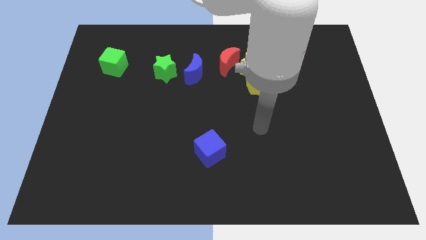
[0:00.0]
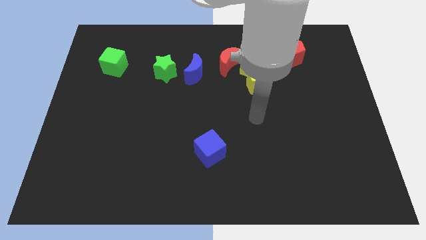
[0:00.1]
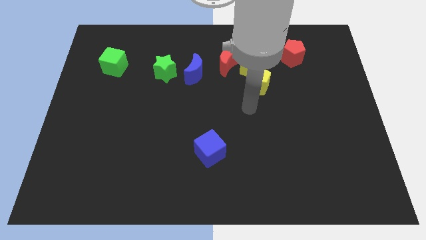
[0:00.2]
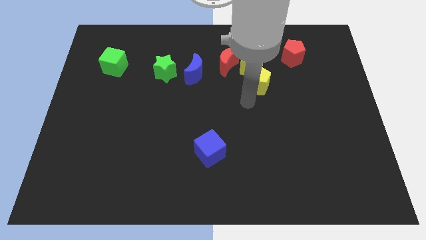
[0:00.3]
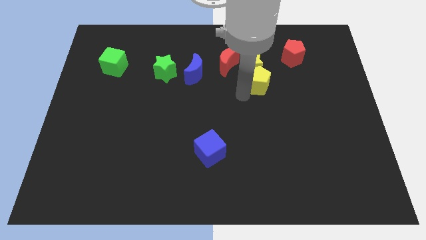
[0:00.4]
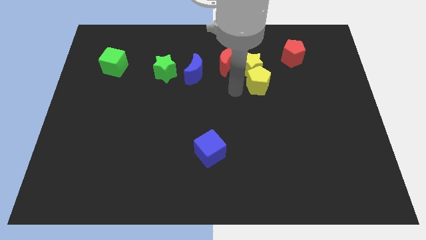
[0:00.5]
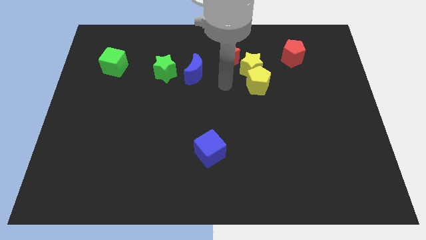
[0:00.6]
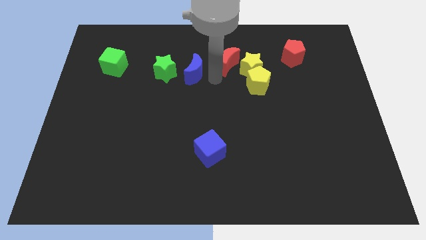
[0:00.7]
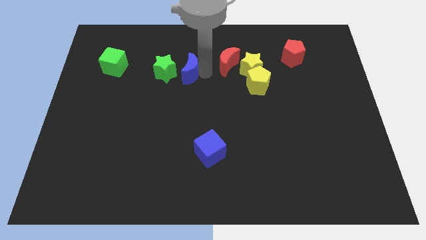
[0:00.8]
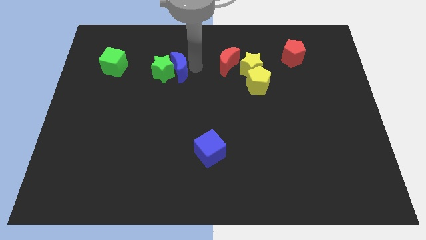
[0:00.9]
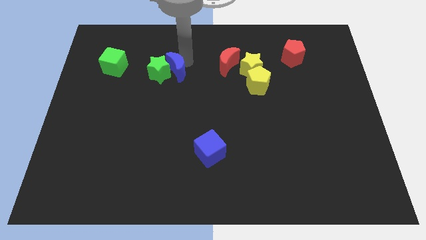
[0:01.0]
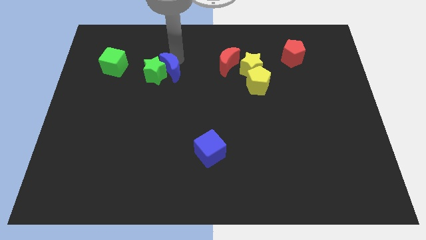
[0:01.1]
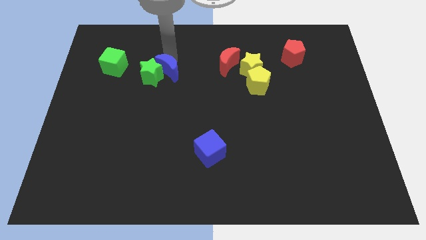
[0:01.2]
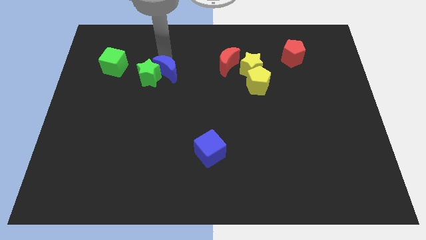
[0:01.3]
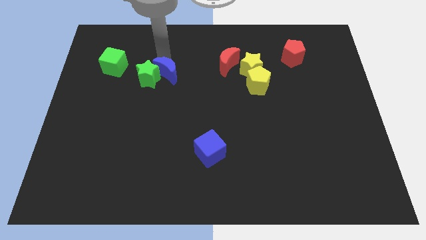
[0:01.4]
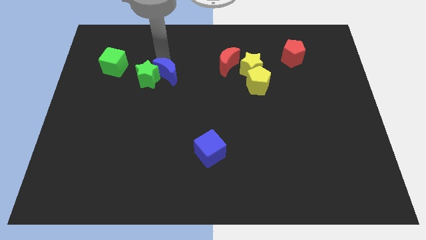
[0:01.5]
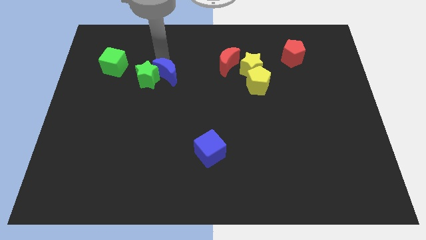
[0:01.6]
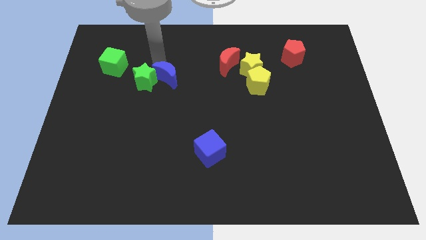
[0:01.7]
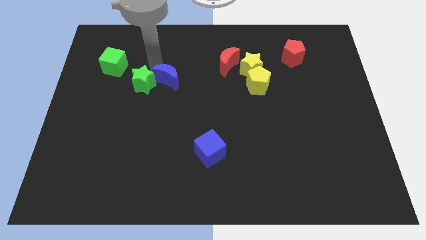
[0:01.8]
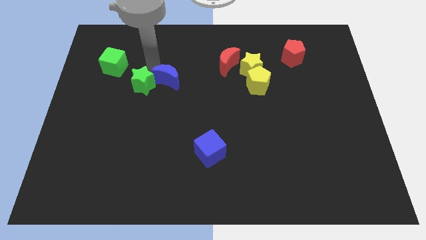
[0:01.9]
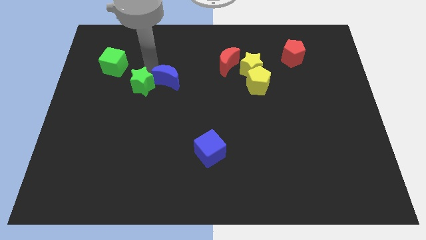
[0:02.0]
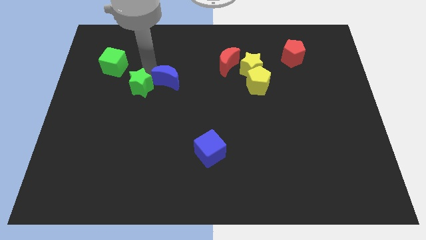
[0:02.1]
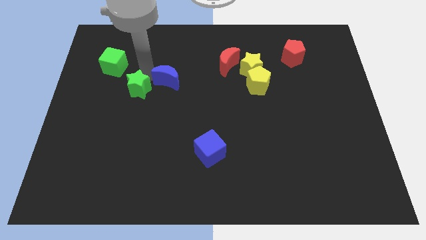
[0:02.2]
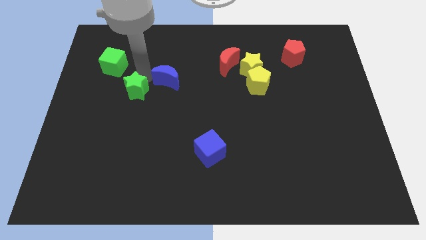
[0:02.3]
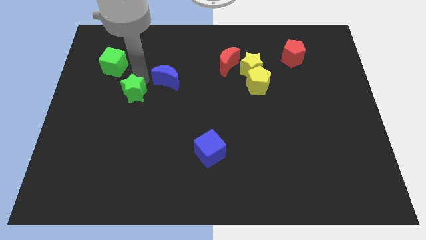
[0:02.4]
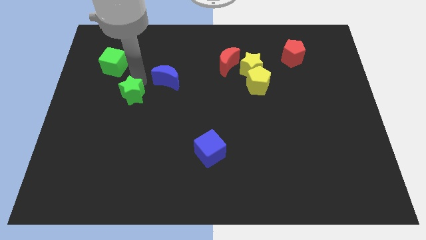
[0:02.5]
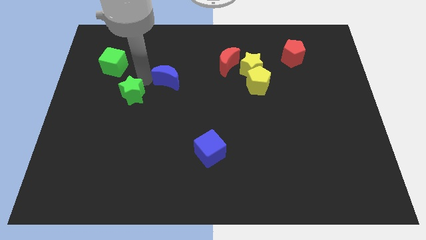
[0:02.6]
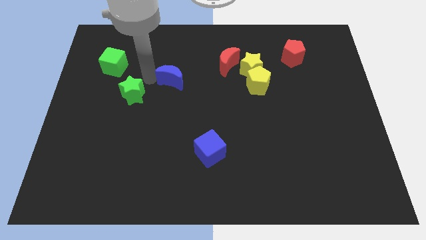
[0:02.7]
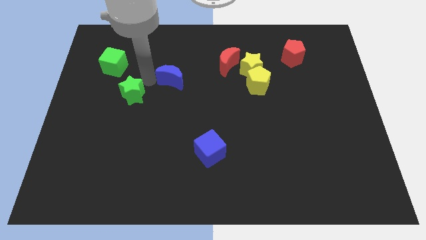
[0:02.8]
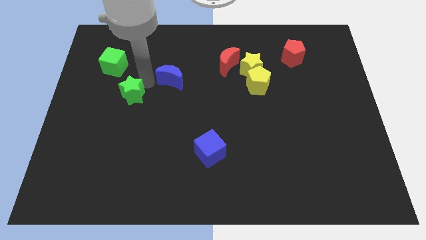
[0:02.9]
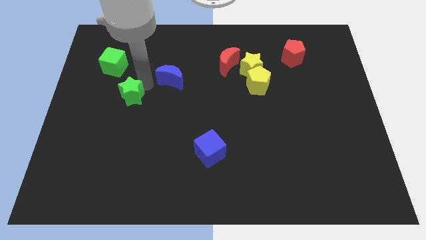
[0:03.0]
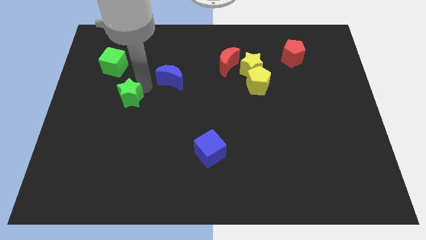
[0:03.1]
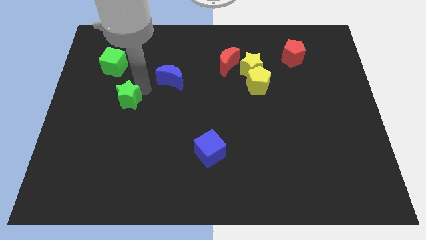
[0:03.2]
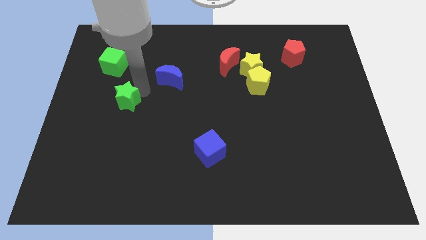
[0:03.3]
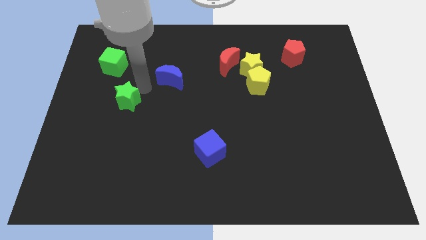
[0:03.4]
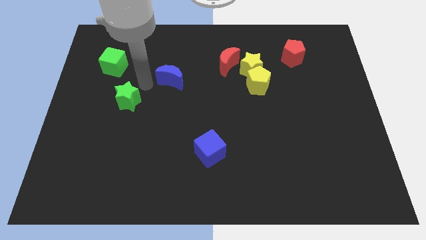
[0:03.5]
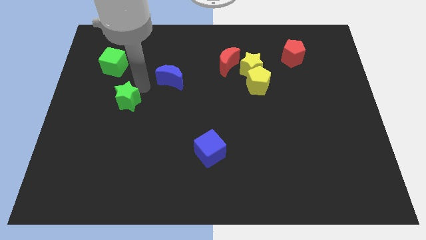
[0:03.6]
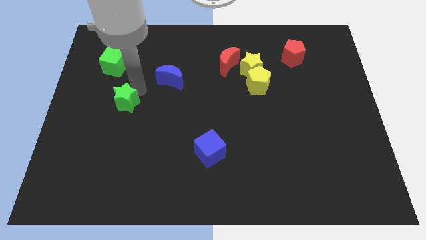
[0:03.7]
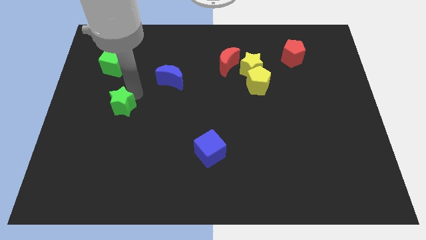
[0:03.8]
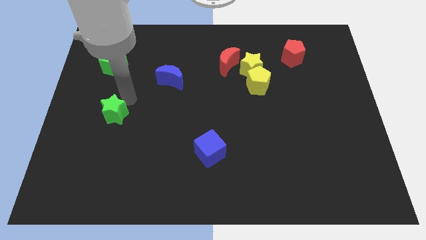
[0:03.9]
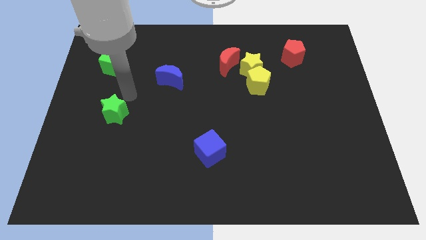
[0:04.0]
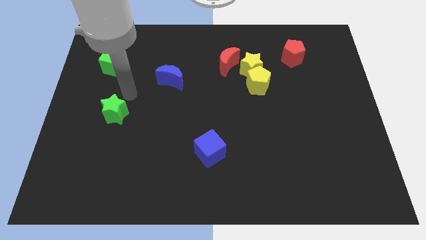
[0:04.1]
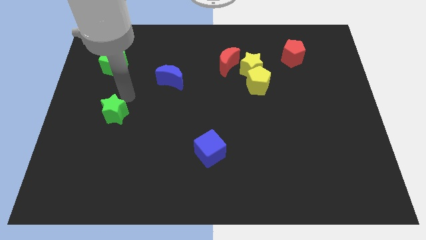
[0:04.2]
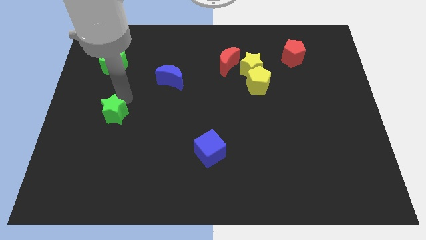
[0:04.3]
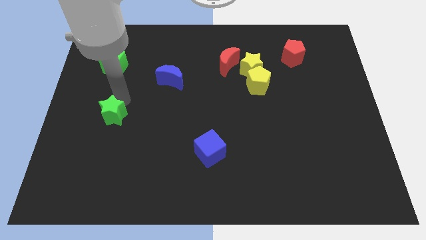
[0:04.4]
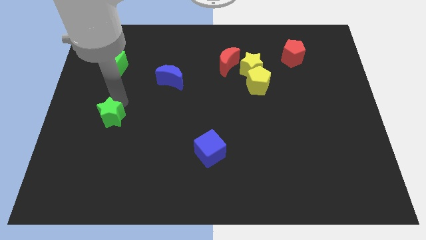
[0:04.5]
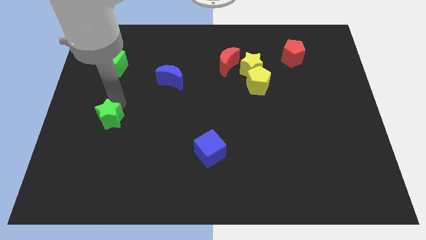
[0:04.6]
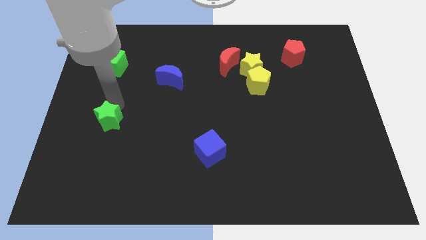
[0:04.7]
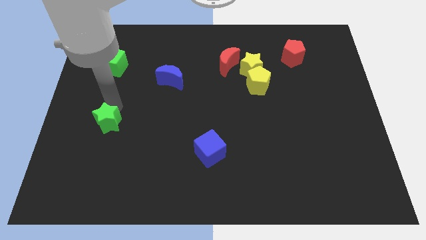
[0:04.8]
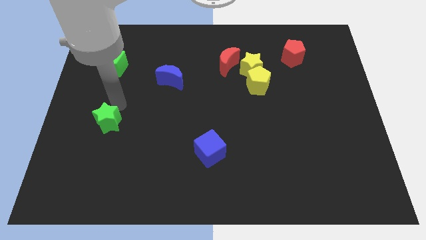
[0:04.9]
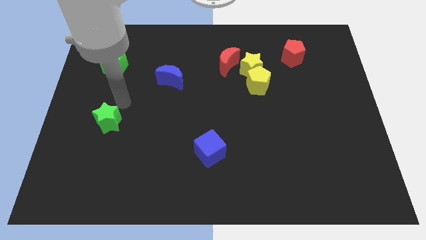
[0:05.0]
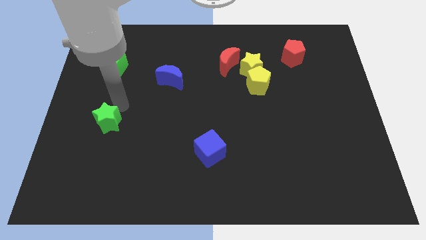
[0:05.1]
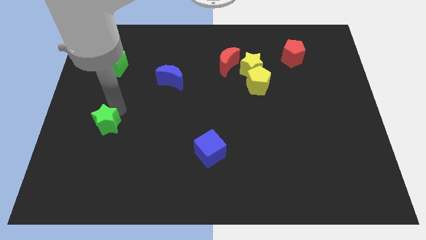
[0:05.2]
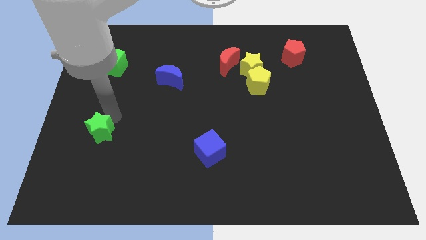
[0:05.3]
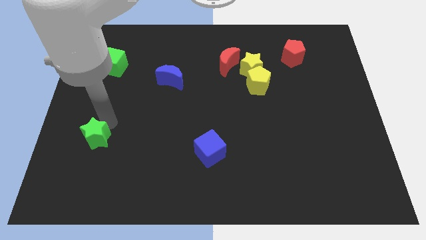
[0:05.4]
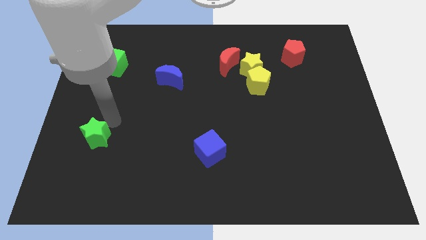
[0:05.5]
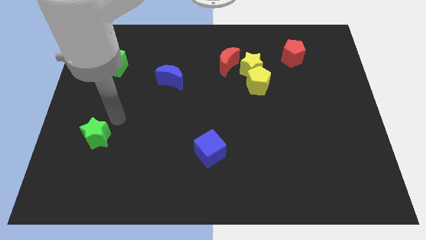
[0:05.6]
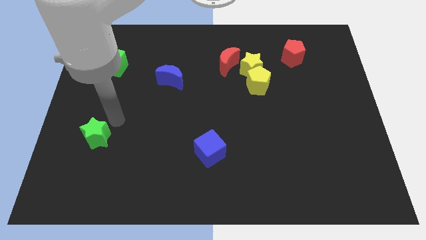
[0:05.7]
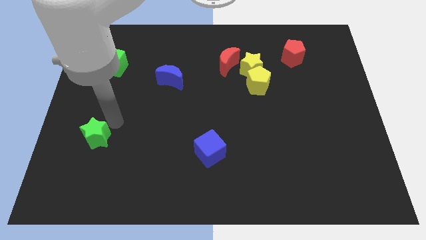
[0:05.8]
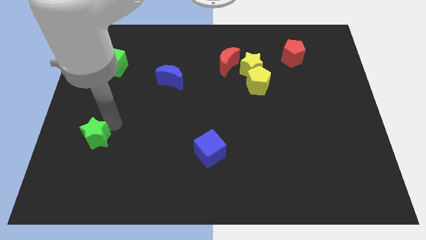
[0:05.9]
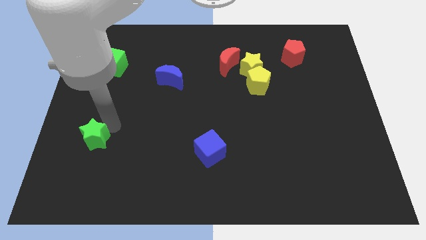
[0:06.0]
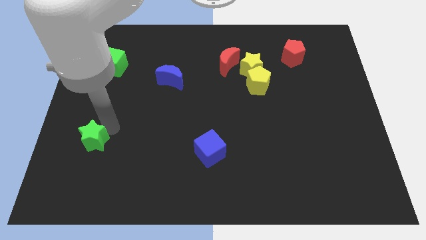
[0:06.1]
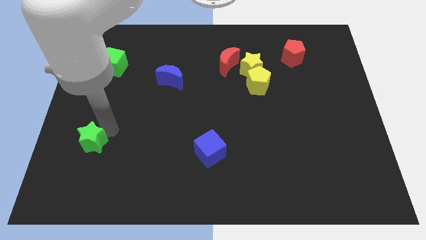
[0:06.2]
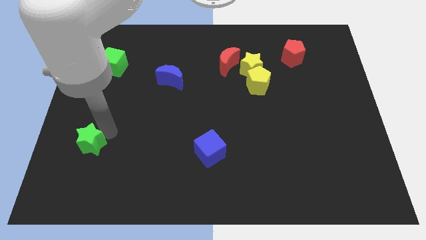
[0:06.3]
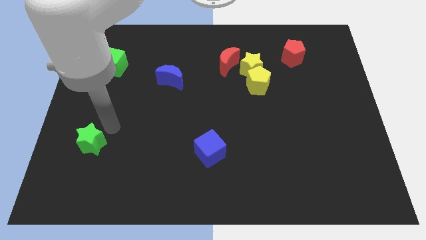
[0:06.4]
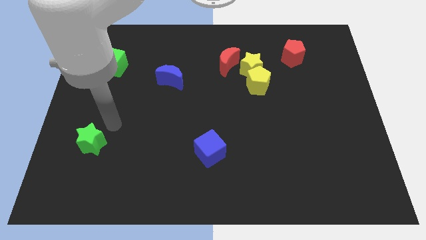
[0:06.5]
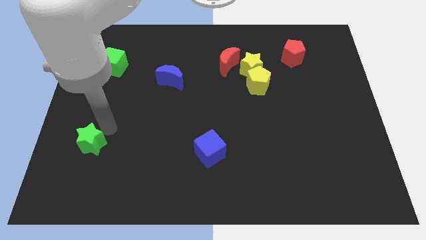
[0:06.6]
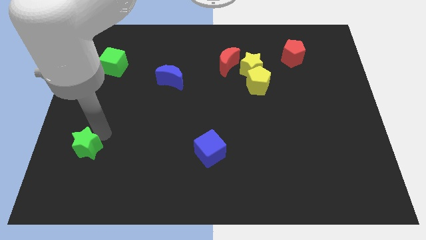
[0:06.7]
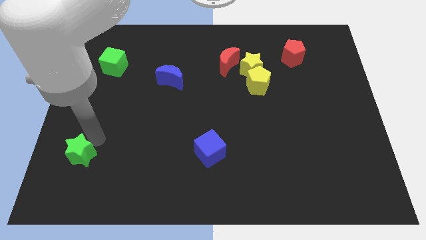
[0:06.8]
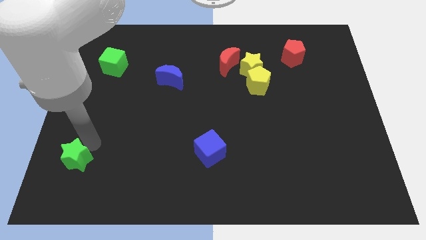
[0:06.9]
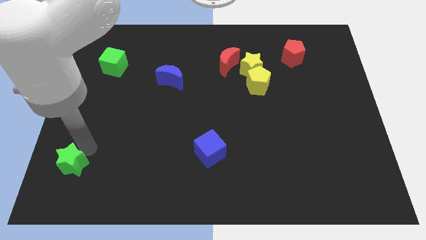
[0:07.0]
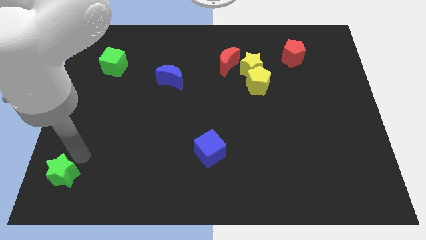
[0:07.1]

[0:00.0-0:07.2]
put the green star to the bottom left corner
